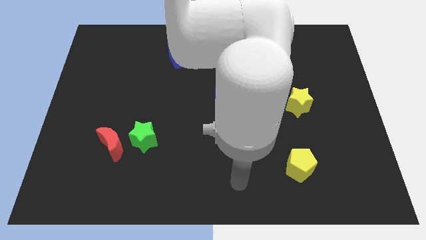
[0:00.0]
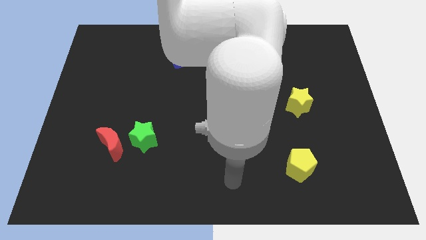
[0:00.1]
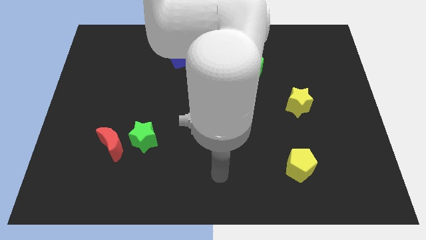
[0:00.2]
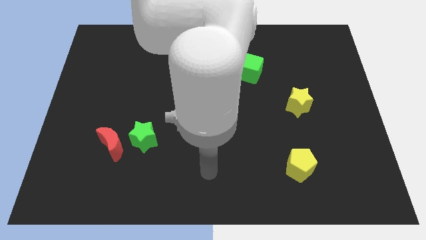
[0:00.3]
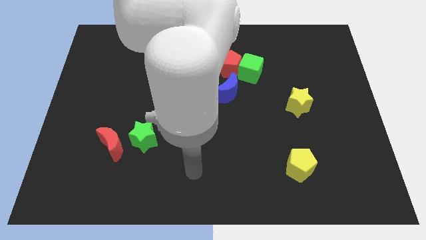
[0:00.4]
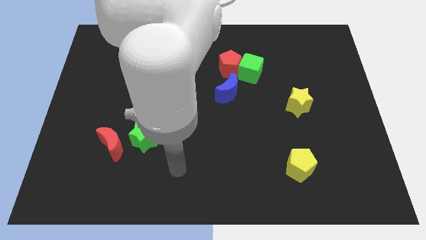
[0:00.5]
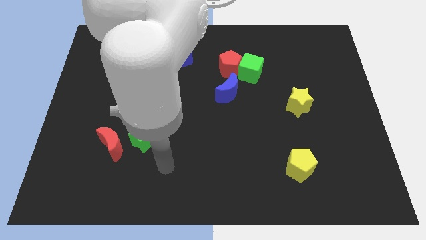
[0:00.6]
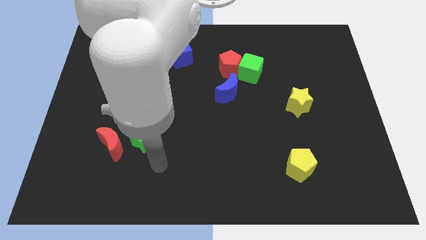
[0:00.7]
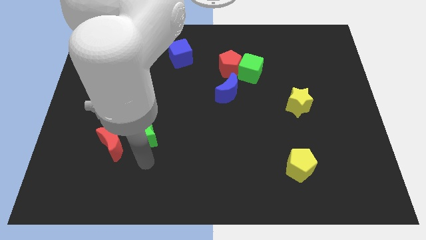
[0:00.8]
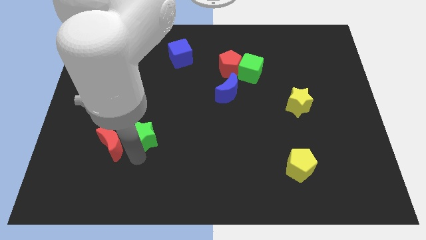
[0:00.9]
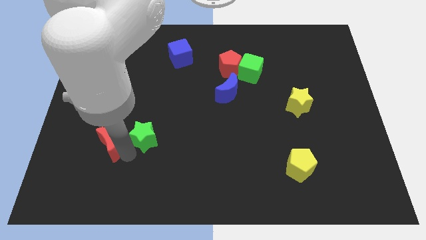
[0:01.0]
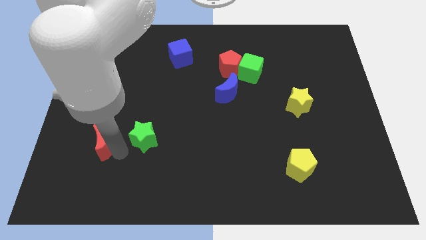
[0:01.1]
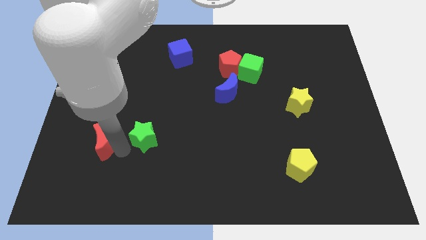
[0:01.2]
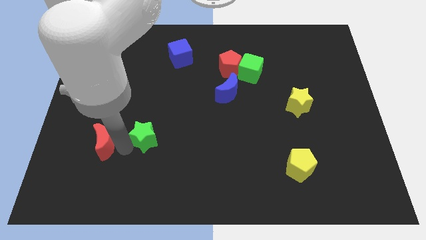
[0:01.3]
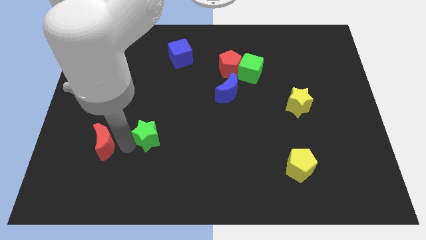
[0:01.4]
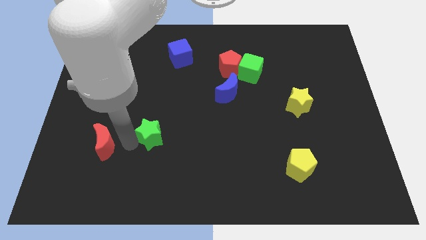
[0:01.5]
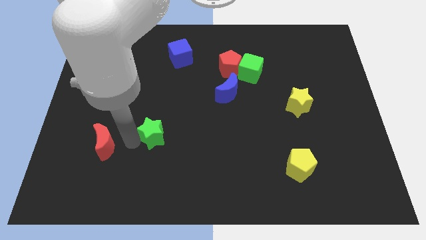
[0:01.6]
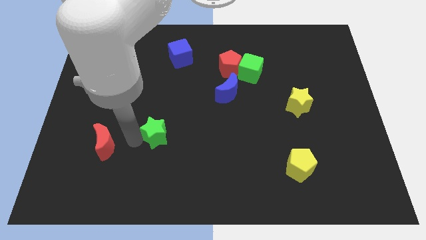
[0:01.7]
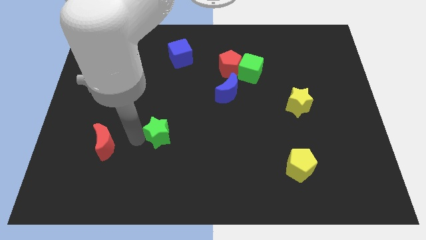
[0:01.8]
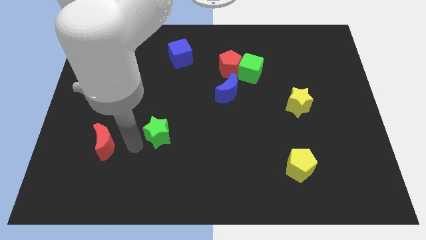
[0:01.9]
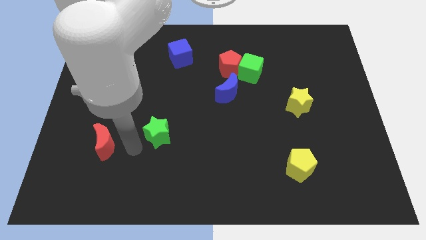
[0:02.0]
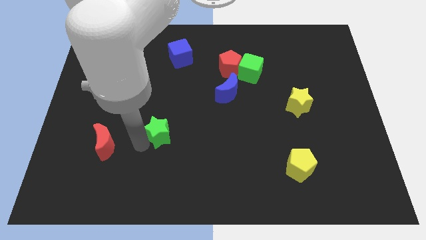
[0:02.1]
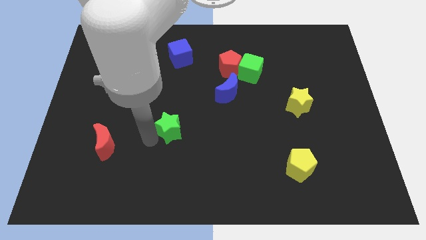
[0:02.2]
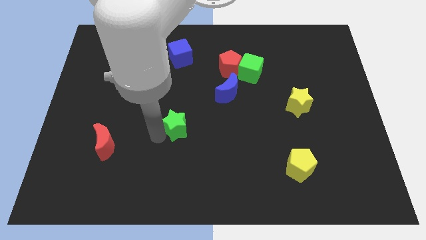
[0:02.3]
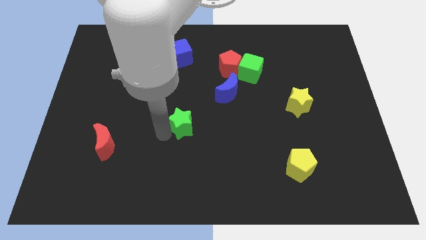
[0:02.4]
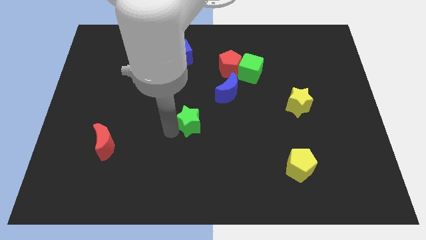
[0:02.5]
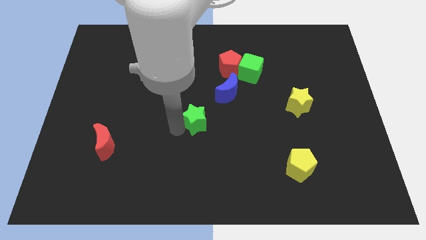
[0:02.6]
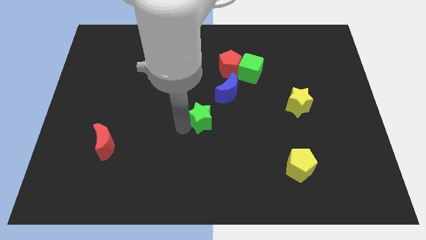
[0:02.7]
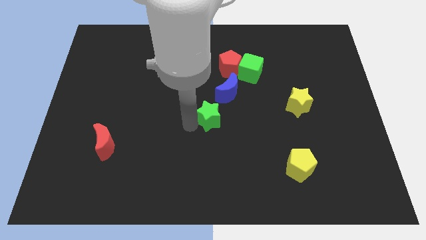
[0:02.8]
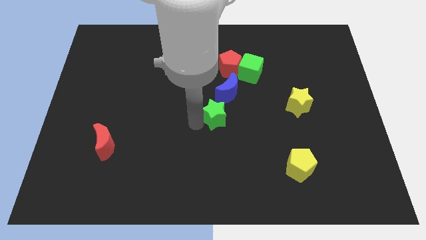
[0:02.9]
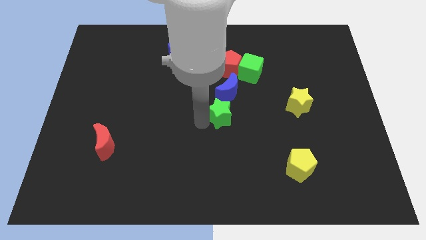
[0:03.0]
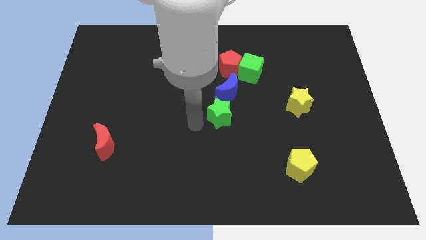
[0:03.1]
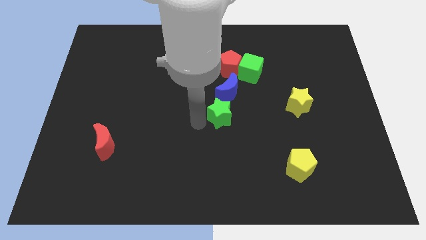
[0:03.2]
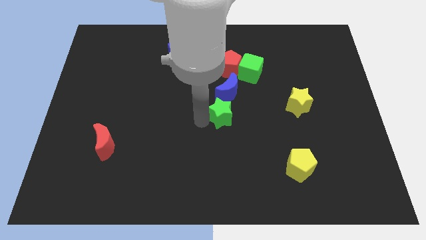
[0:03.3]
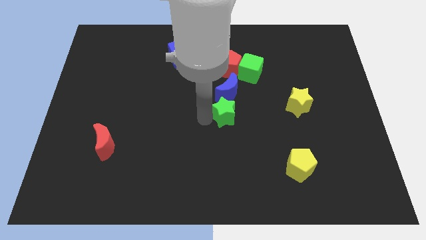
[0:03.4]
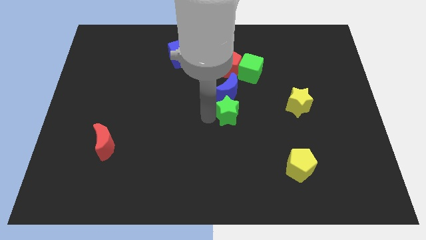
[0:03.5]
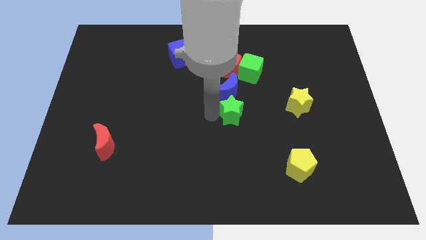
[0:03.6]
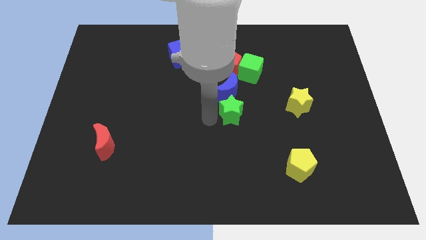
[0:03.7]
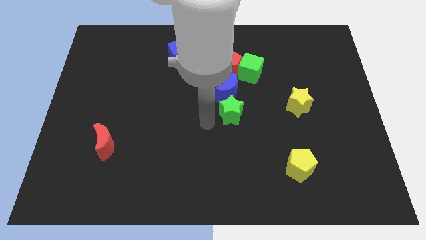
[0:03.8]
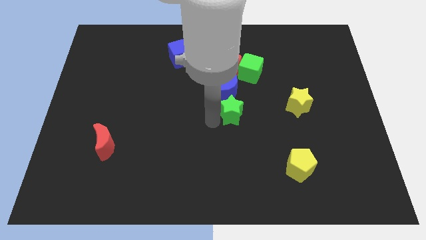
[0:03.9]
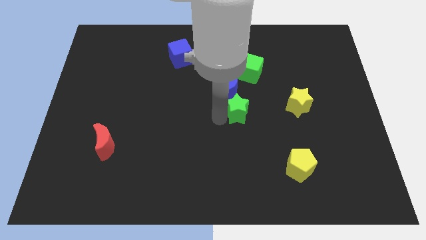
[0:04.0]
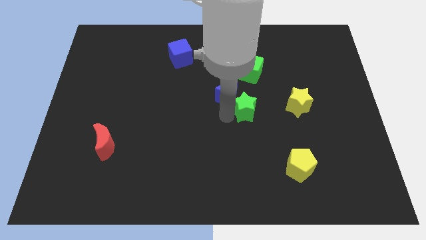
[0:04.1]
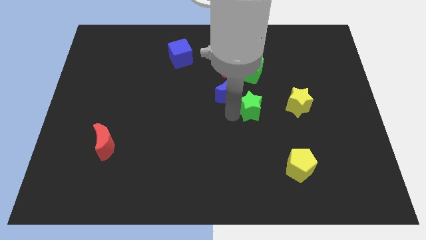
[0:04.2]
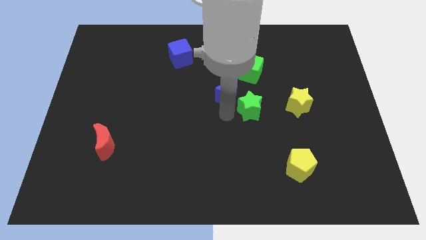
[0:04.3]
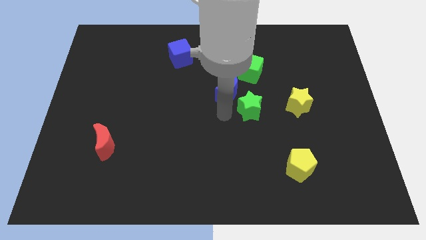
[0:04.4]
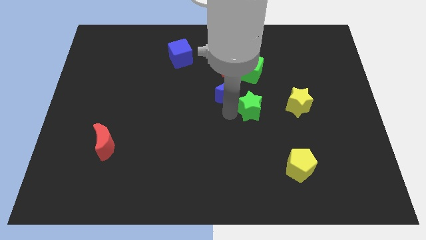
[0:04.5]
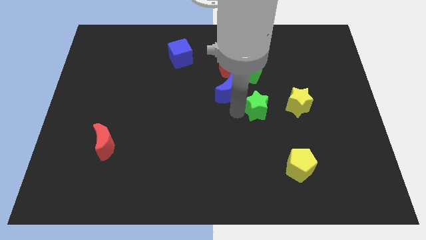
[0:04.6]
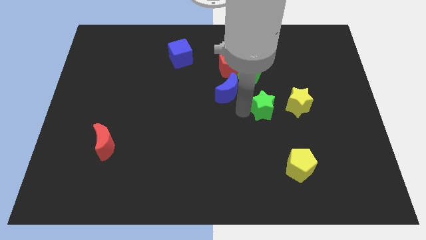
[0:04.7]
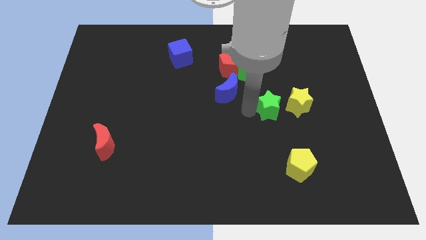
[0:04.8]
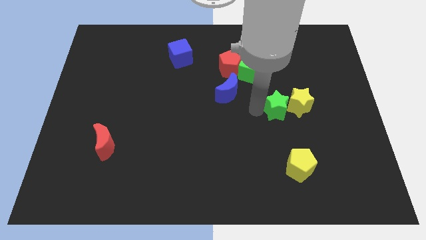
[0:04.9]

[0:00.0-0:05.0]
slide the green star towards the yellow star

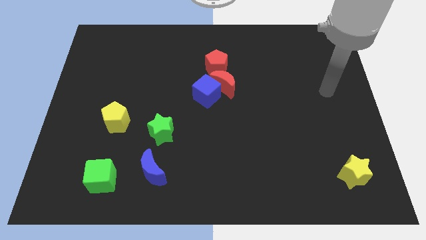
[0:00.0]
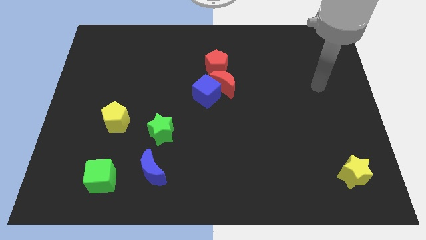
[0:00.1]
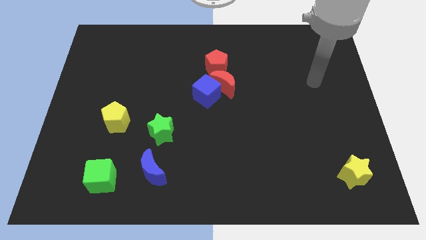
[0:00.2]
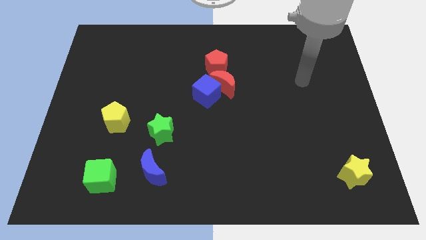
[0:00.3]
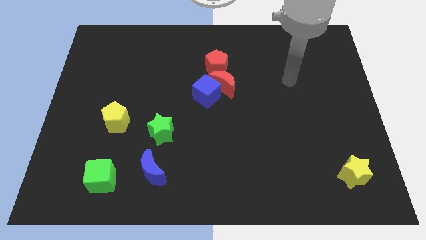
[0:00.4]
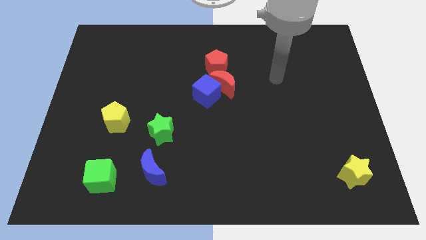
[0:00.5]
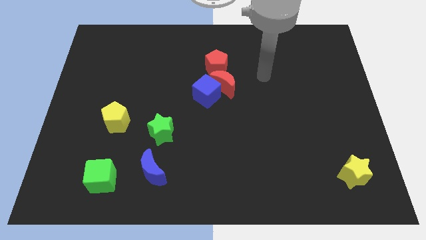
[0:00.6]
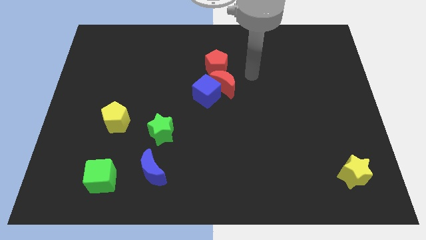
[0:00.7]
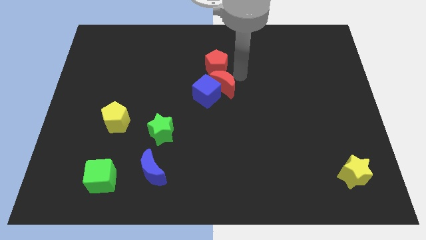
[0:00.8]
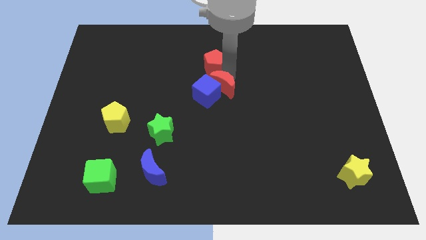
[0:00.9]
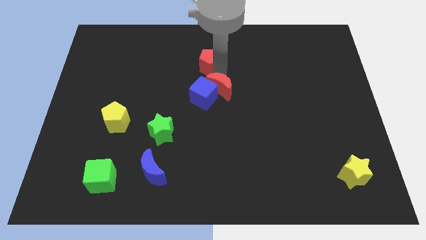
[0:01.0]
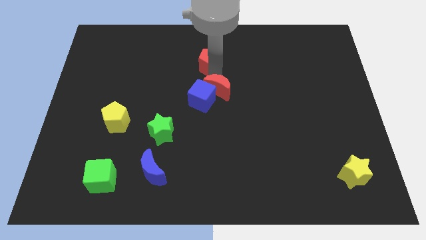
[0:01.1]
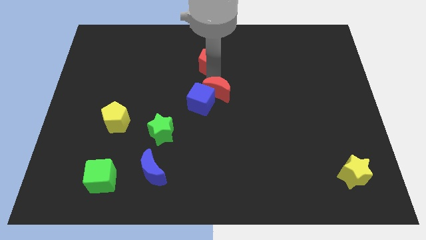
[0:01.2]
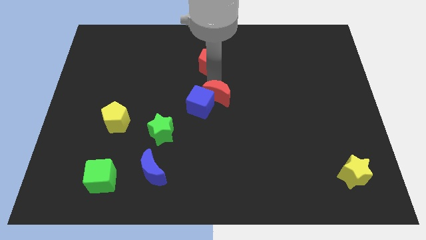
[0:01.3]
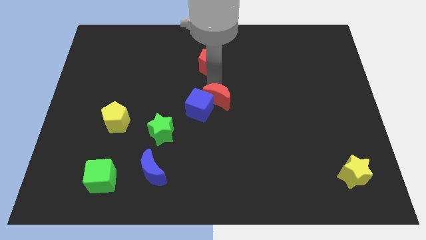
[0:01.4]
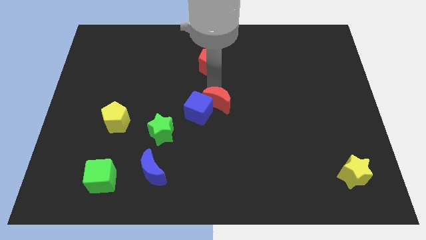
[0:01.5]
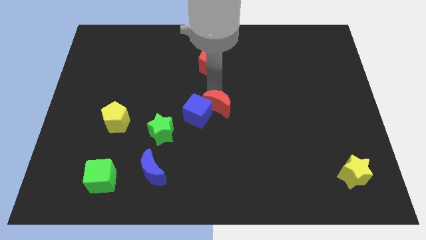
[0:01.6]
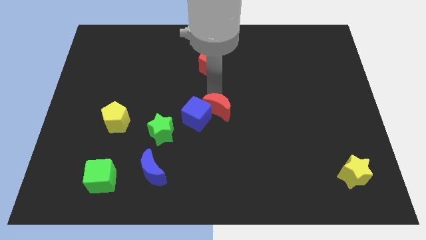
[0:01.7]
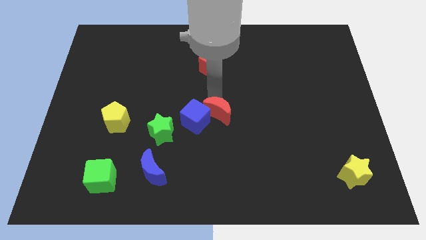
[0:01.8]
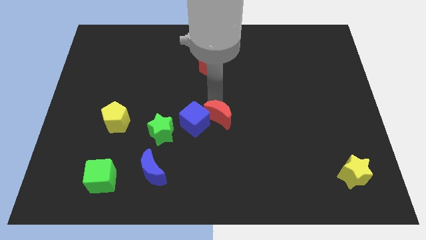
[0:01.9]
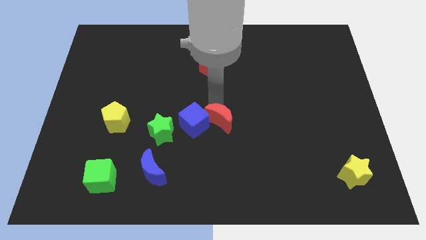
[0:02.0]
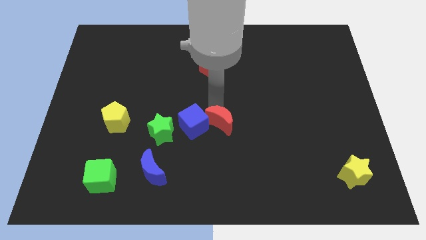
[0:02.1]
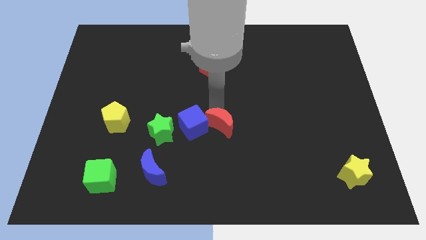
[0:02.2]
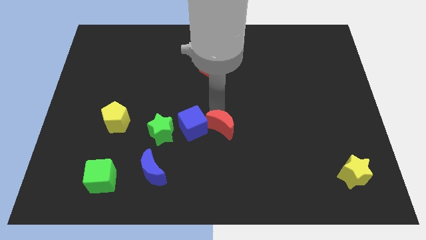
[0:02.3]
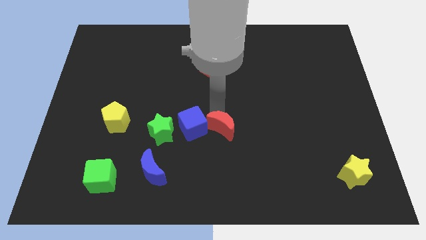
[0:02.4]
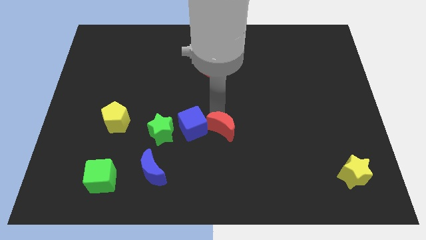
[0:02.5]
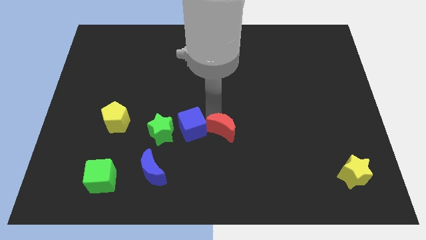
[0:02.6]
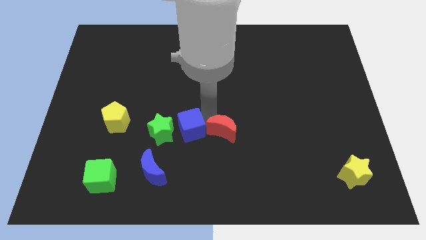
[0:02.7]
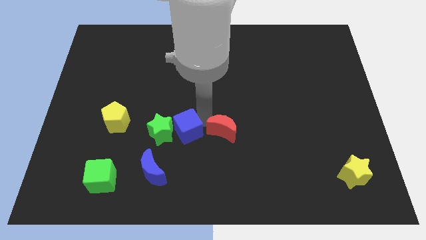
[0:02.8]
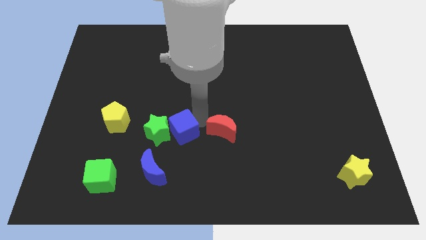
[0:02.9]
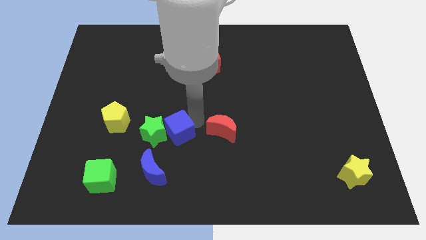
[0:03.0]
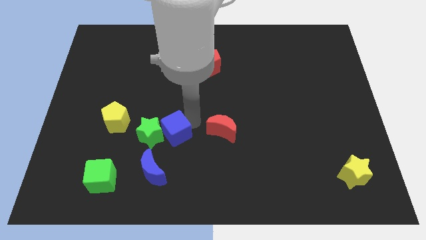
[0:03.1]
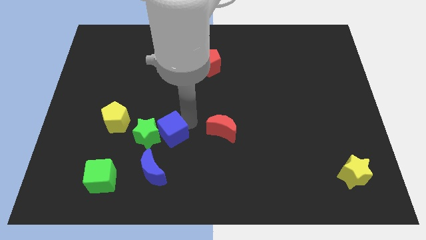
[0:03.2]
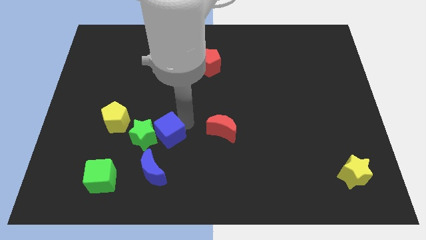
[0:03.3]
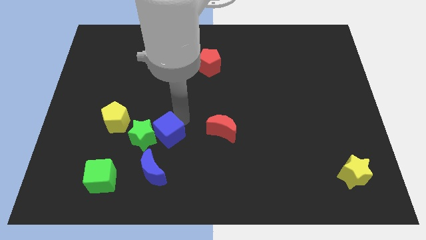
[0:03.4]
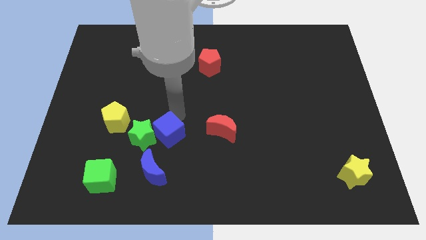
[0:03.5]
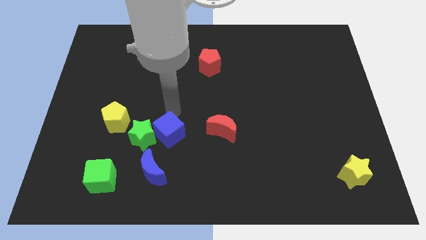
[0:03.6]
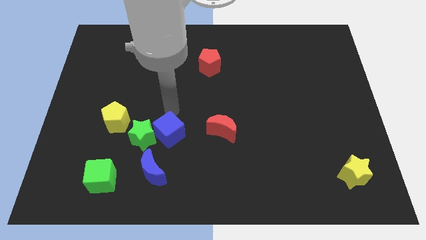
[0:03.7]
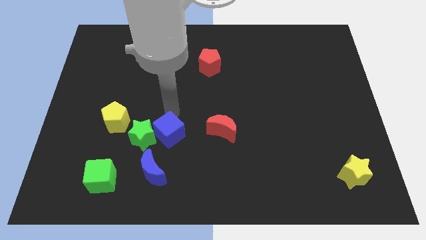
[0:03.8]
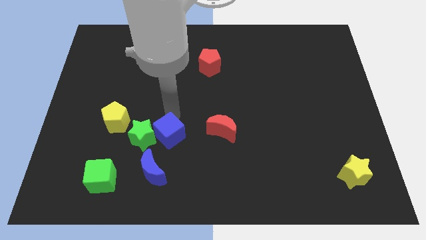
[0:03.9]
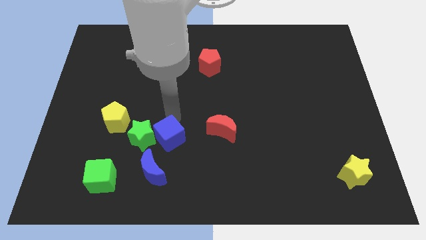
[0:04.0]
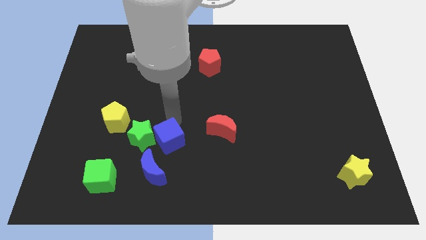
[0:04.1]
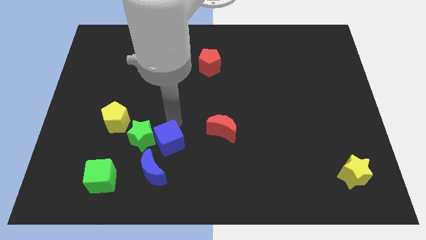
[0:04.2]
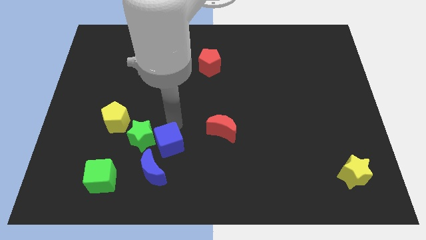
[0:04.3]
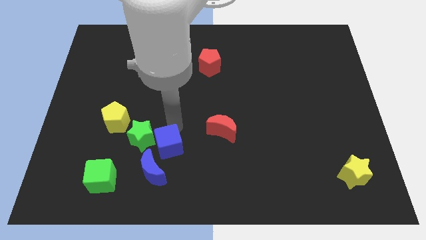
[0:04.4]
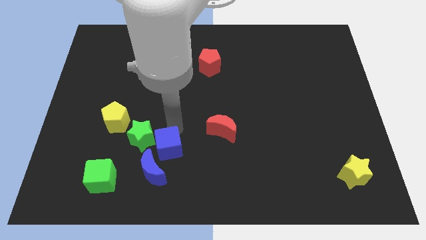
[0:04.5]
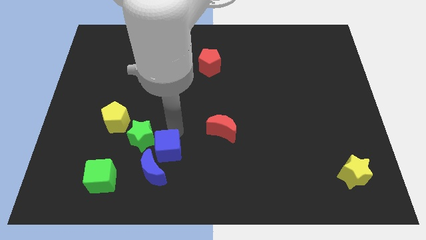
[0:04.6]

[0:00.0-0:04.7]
put the blue cube next to the blue moon
